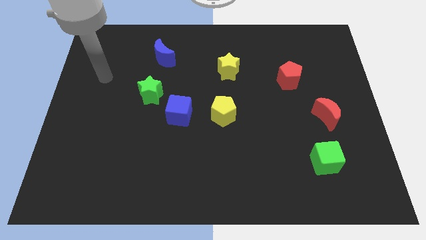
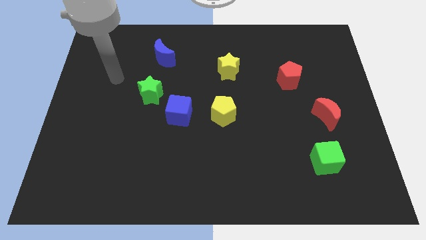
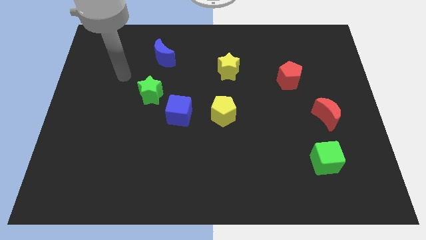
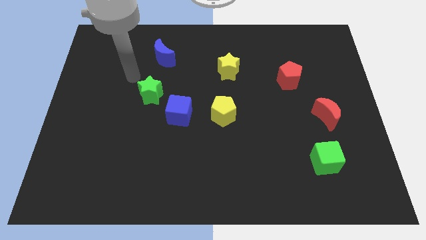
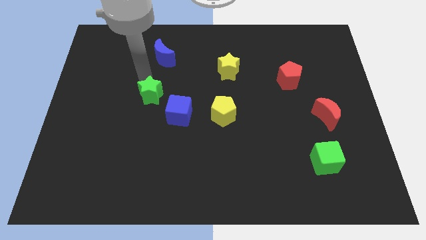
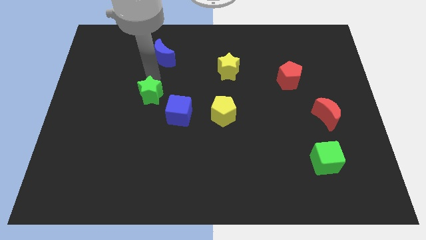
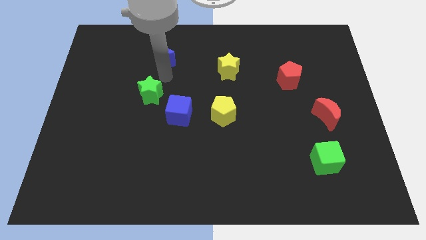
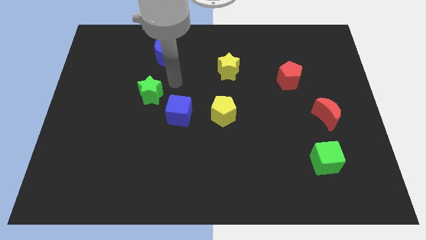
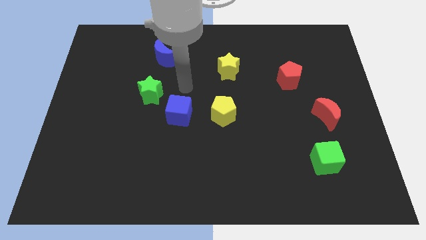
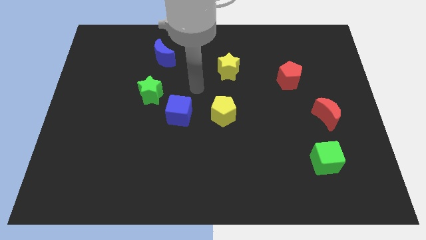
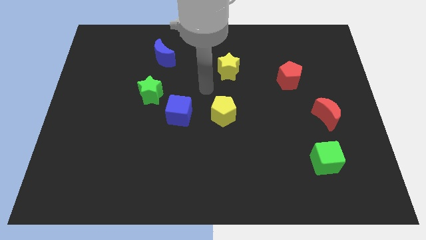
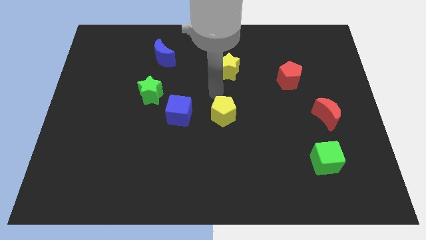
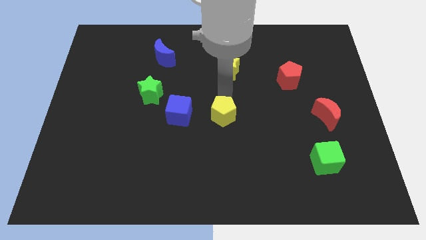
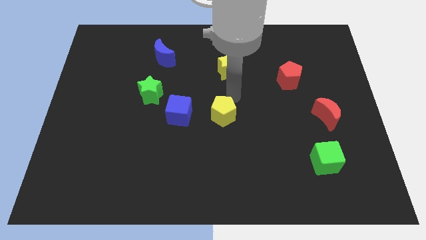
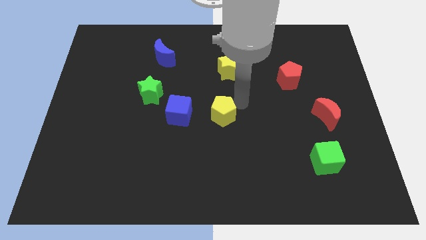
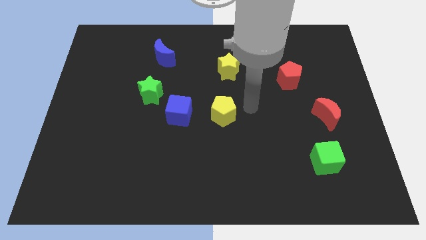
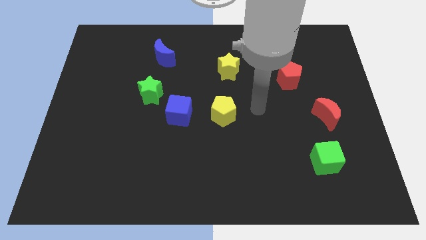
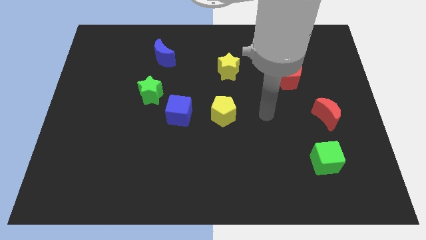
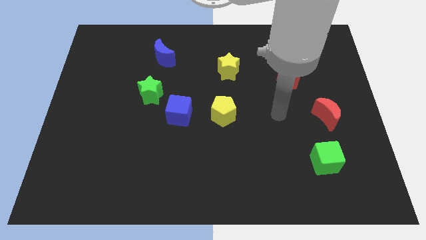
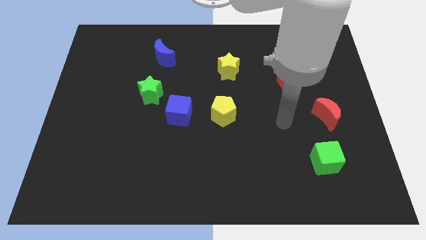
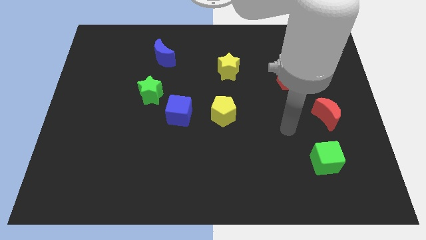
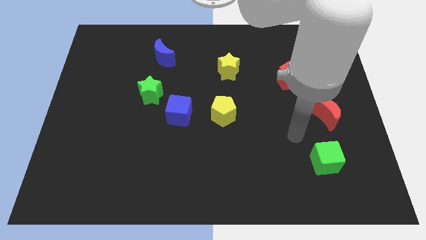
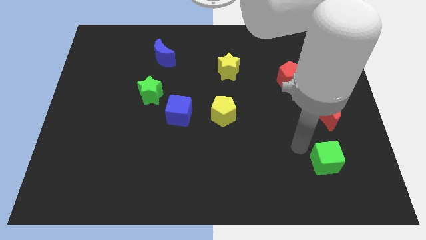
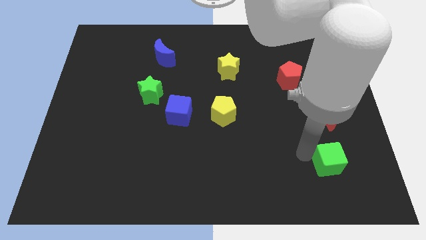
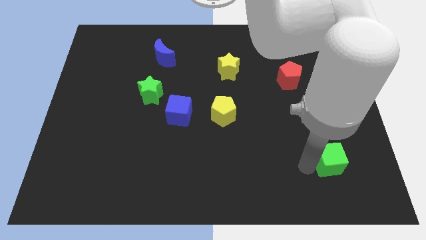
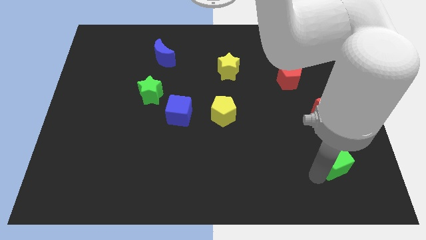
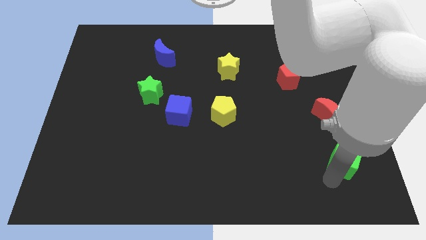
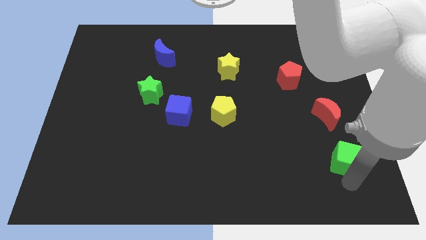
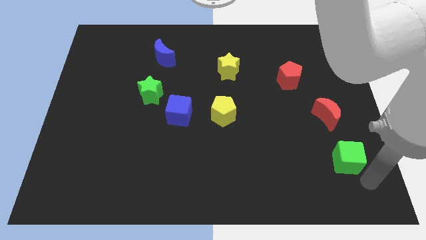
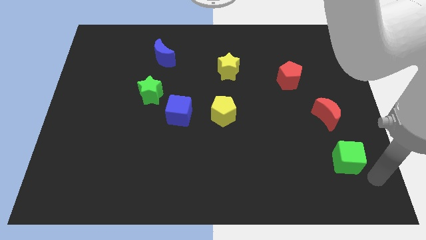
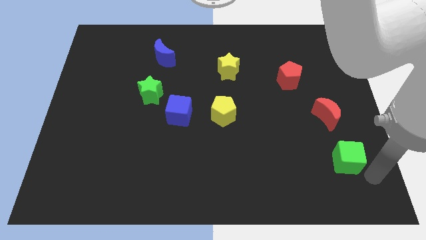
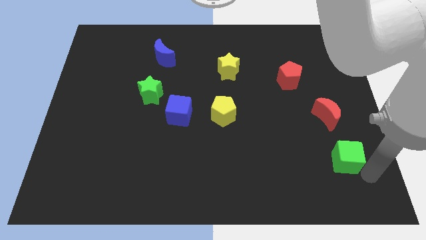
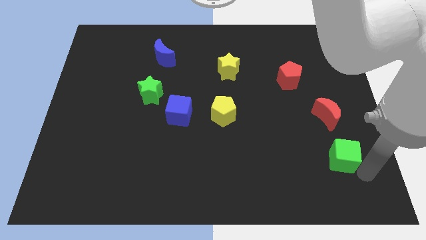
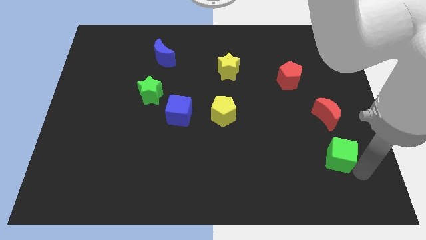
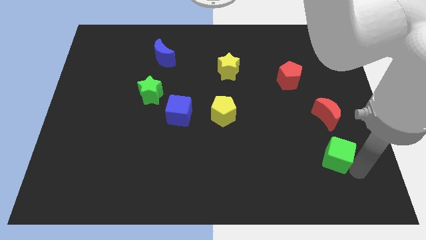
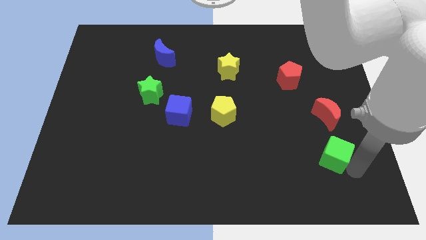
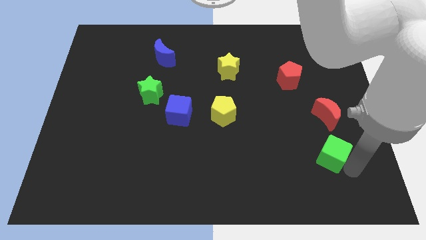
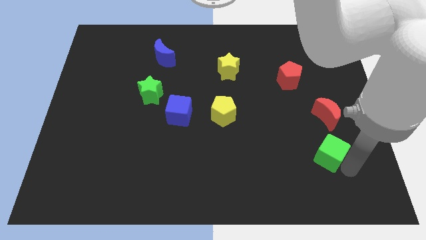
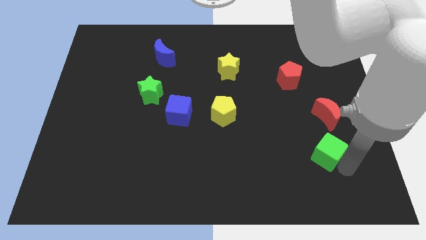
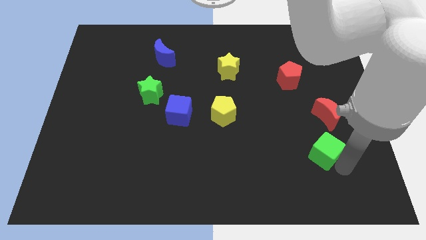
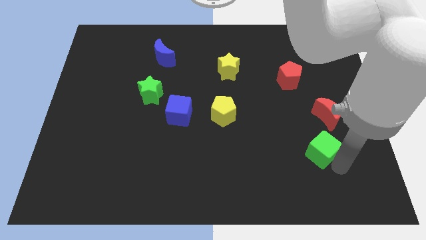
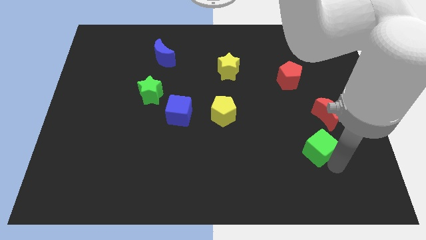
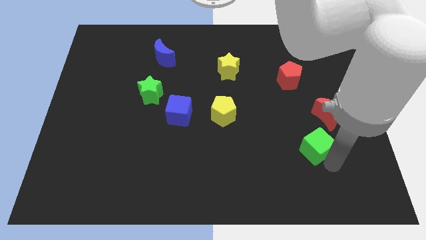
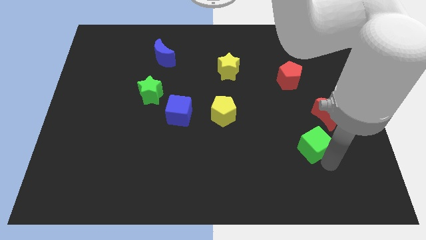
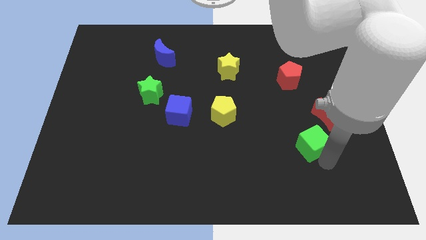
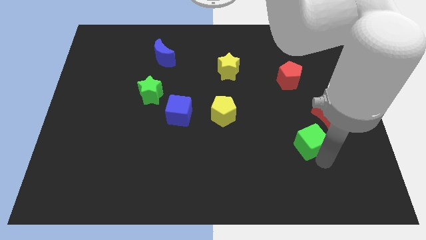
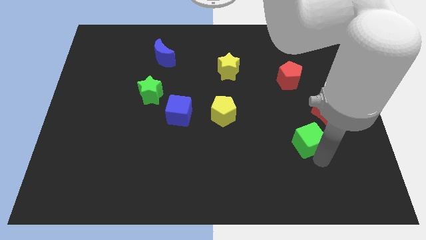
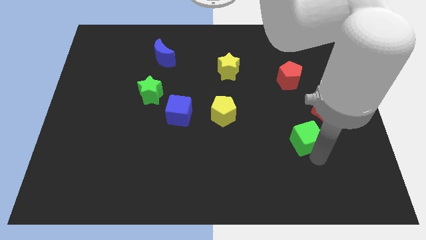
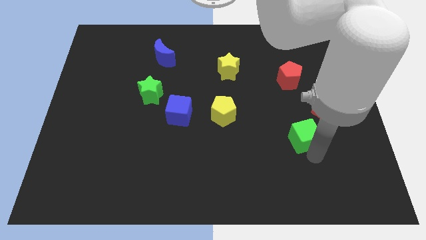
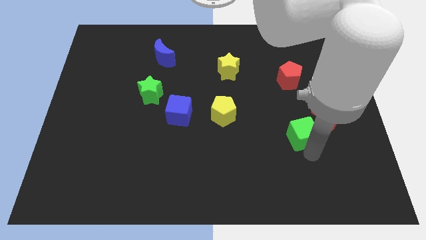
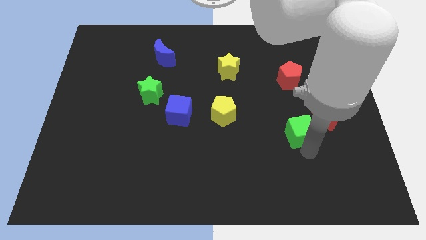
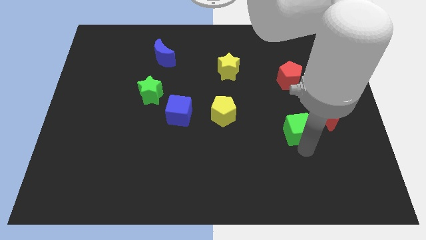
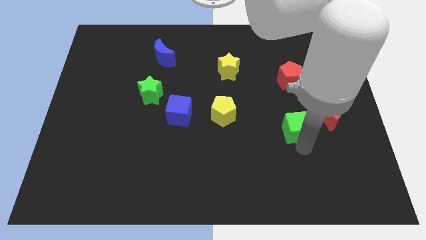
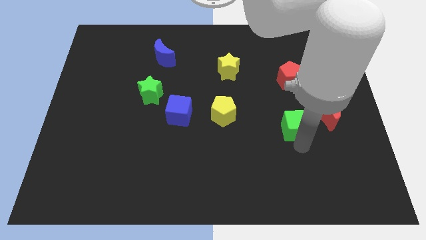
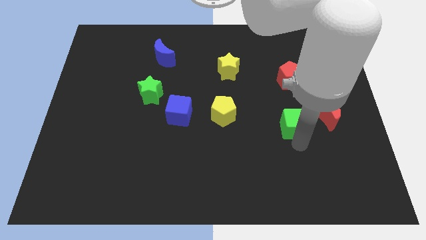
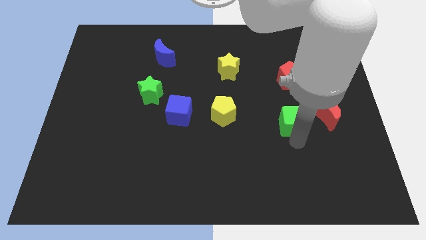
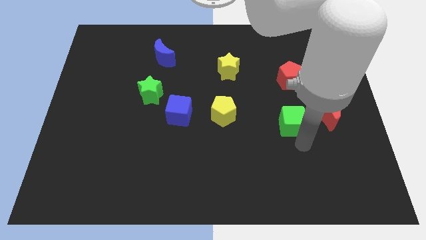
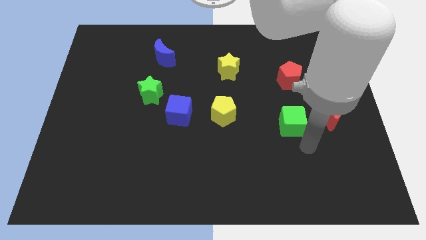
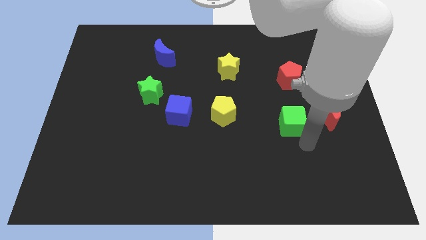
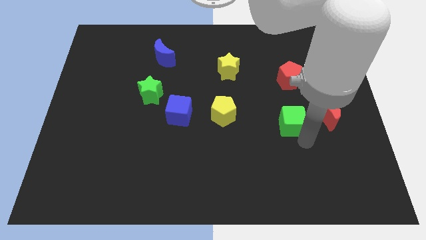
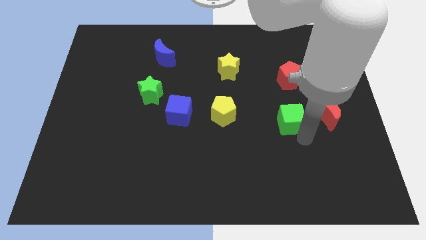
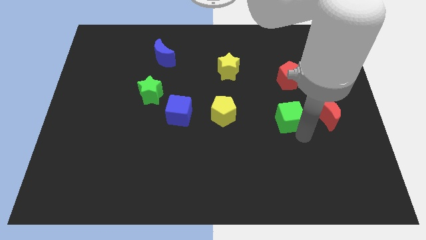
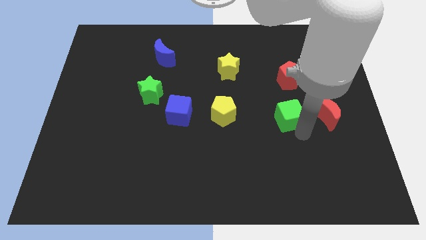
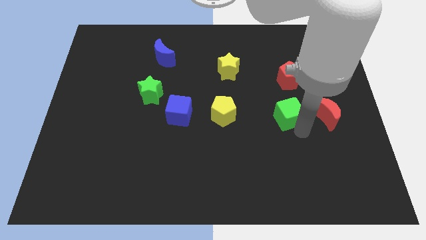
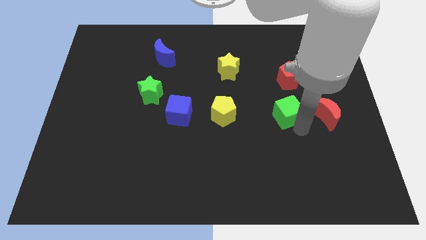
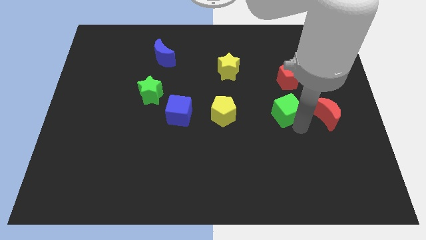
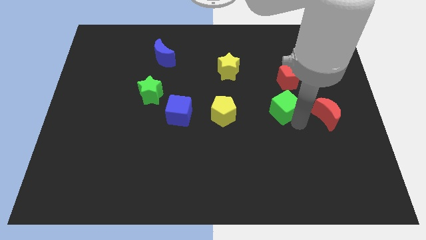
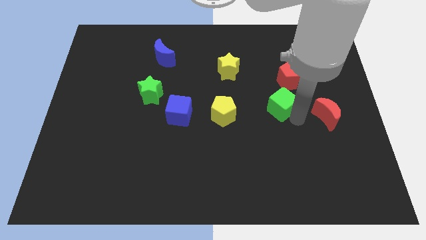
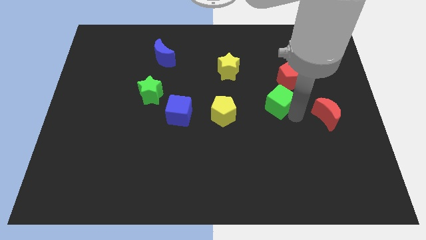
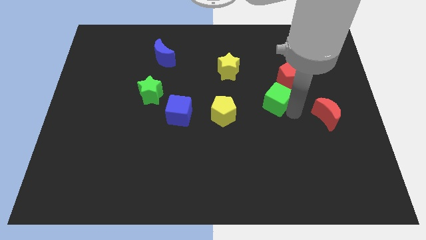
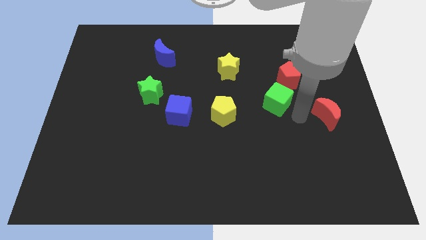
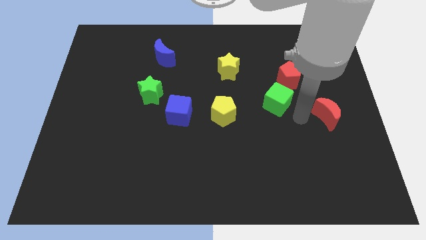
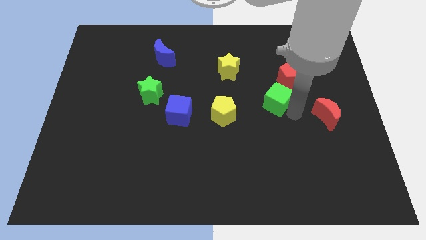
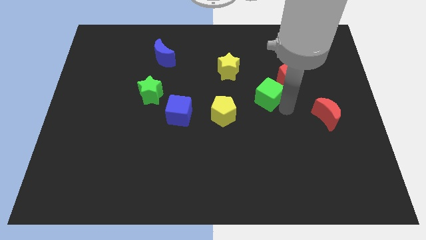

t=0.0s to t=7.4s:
move the green cube diagonally down and to the right of the yellow star
